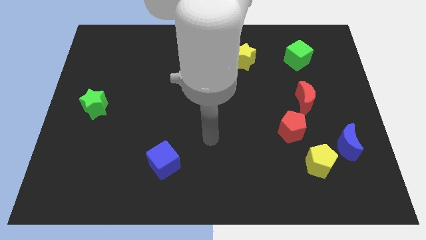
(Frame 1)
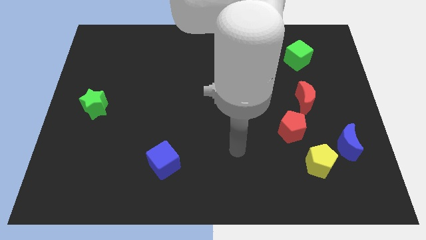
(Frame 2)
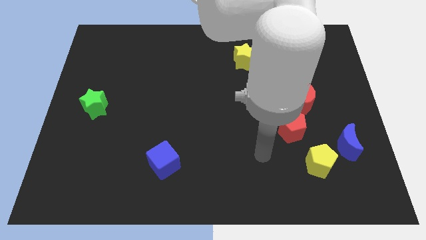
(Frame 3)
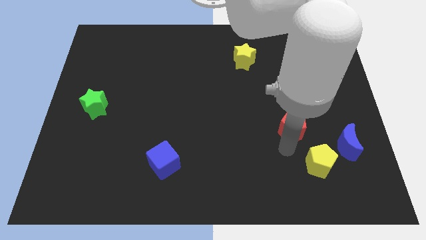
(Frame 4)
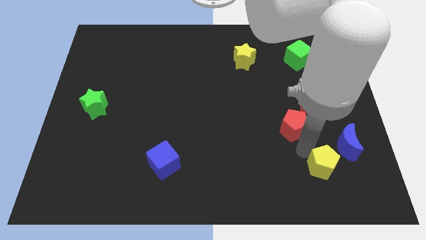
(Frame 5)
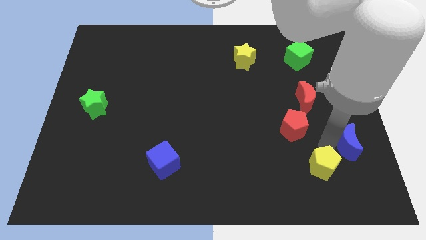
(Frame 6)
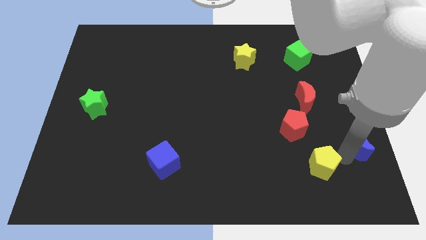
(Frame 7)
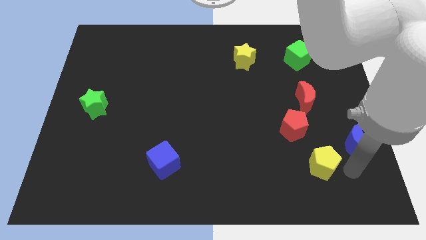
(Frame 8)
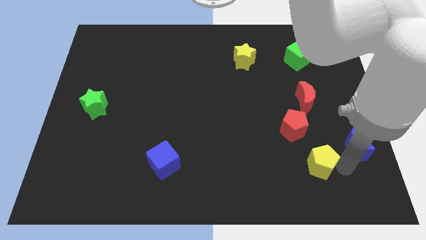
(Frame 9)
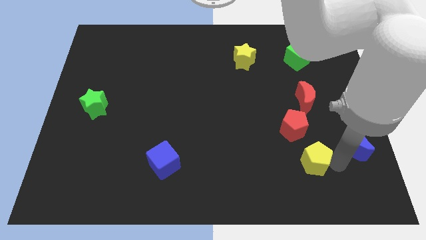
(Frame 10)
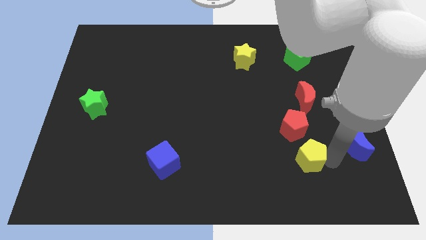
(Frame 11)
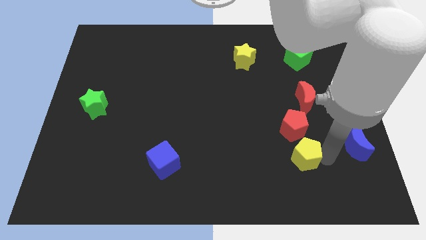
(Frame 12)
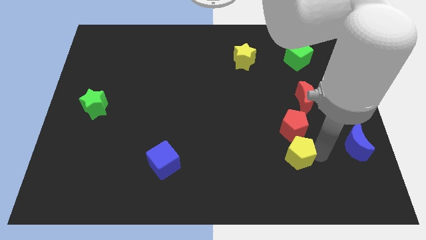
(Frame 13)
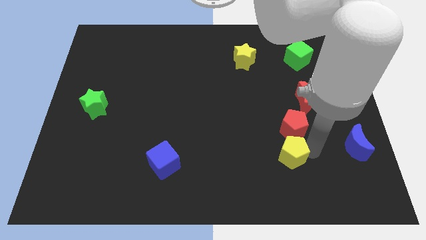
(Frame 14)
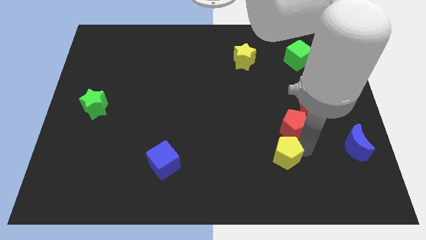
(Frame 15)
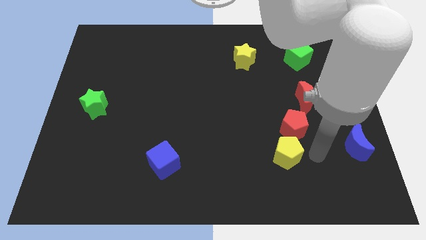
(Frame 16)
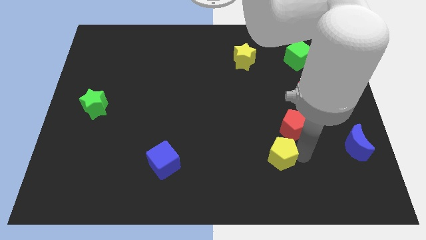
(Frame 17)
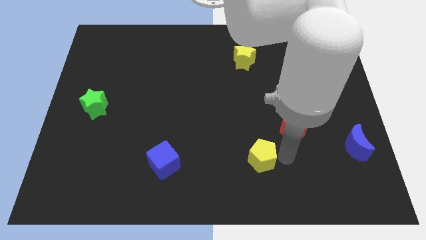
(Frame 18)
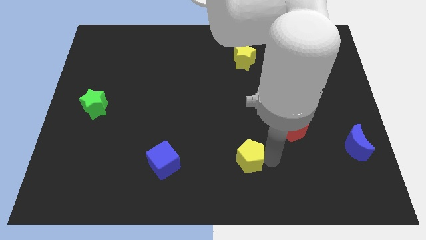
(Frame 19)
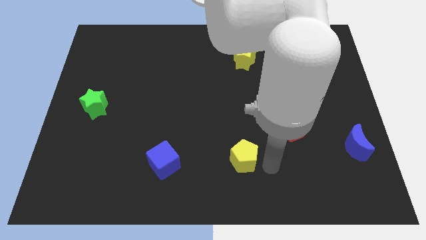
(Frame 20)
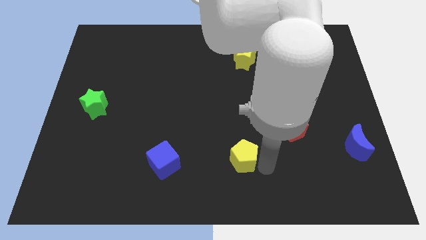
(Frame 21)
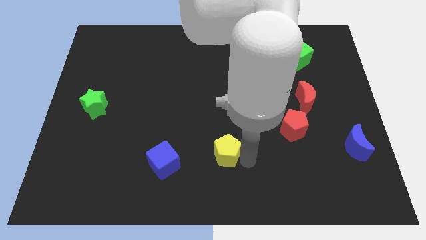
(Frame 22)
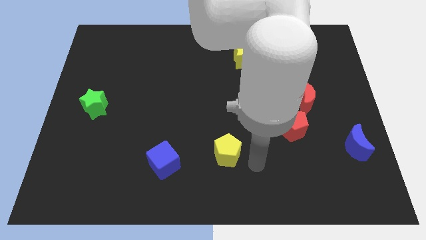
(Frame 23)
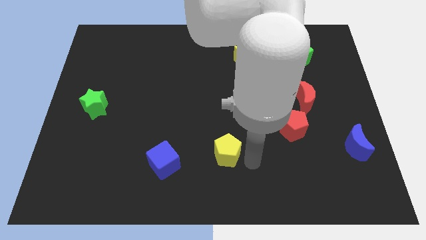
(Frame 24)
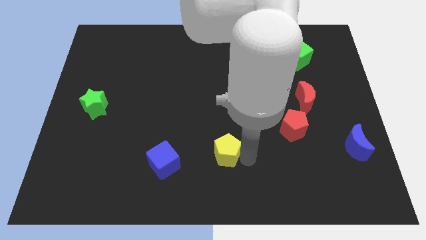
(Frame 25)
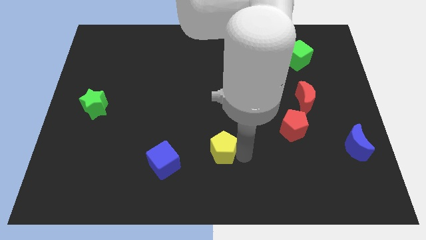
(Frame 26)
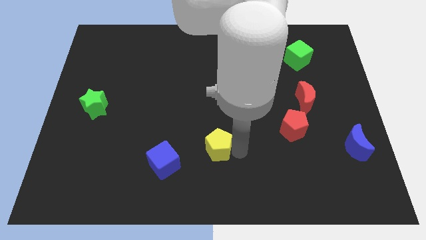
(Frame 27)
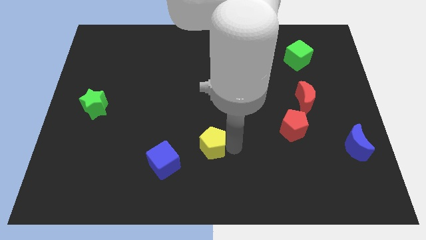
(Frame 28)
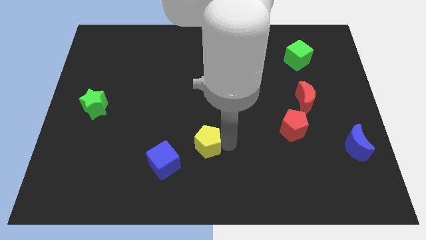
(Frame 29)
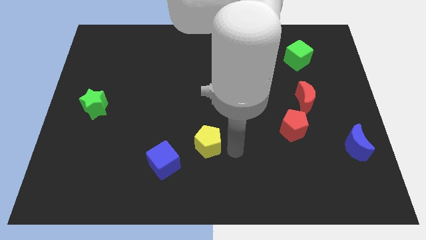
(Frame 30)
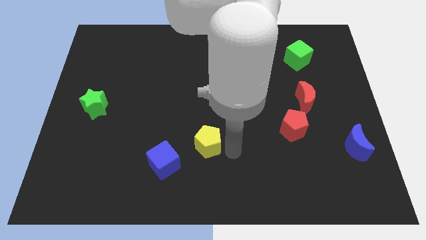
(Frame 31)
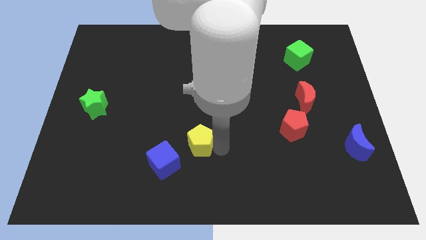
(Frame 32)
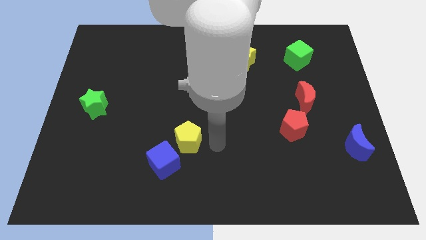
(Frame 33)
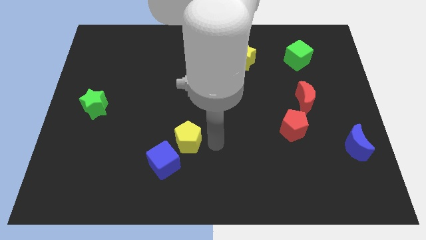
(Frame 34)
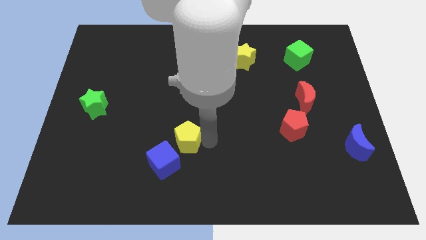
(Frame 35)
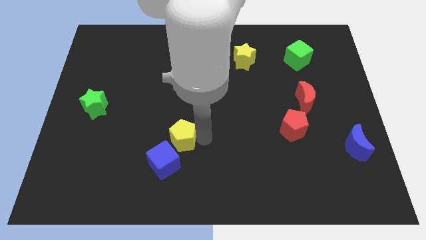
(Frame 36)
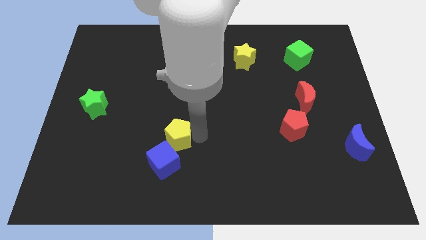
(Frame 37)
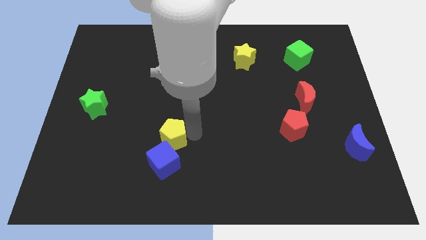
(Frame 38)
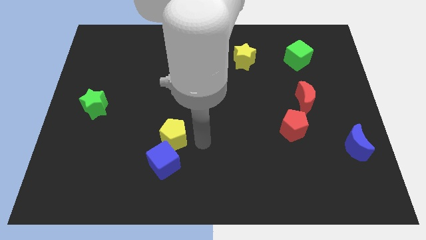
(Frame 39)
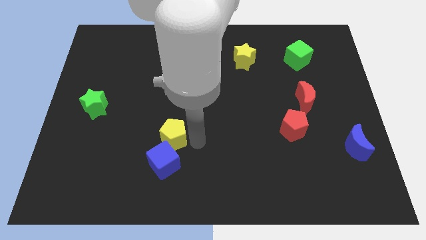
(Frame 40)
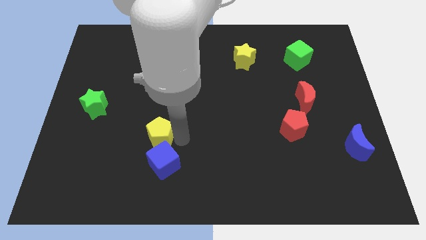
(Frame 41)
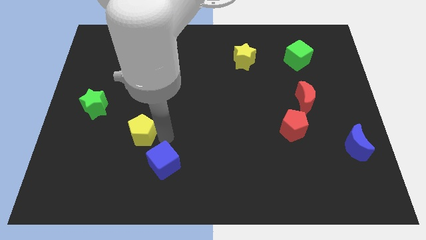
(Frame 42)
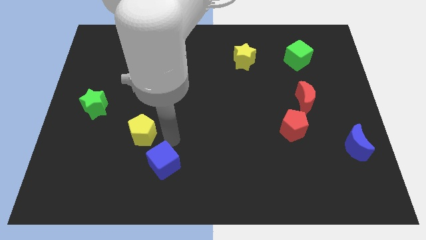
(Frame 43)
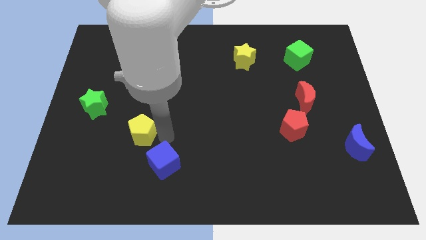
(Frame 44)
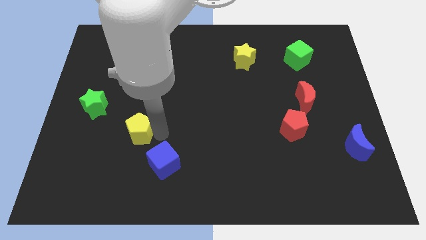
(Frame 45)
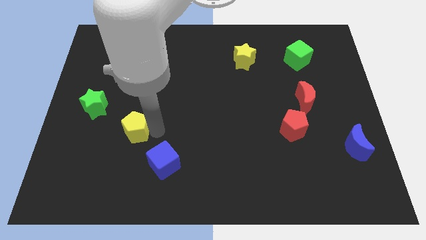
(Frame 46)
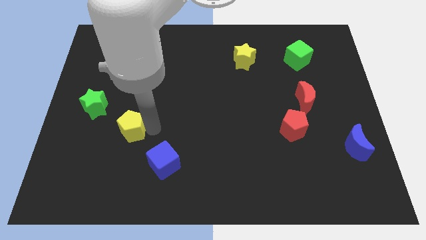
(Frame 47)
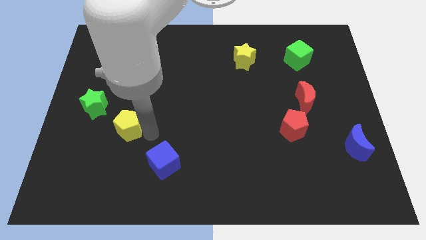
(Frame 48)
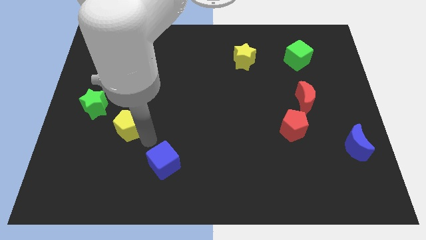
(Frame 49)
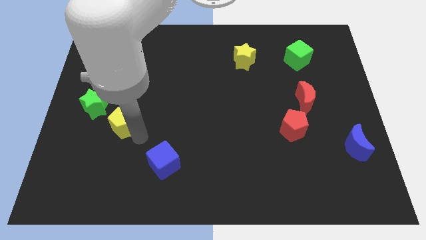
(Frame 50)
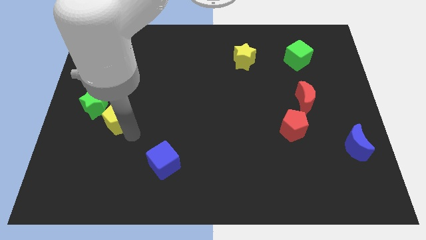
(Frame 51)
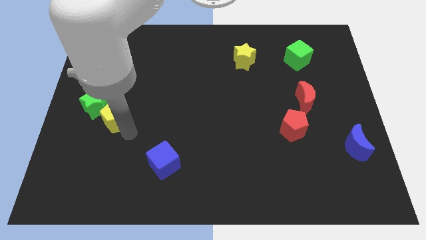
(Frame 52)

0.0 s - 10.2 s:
push the yellow pentagon close to the green star
